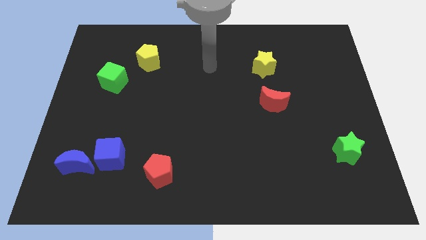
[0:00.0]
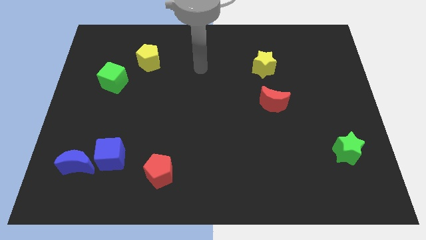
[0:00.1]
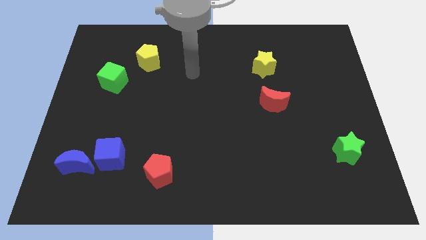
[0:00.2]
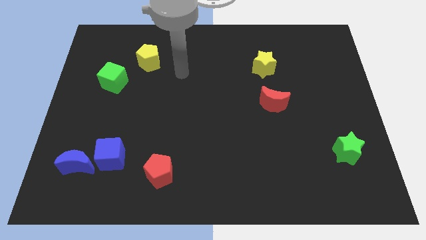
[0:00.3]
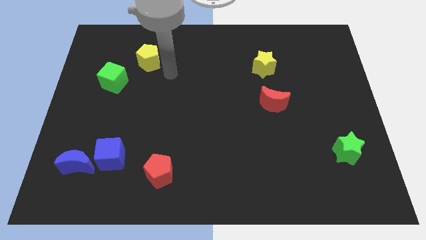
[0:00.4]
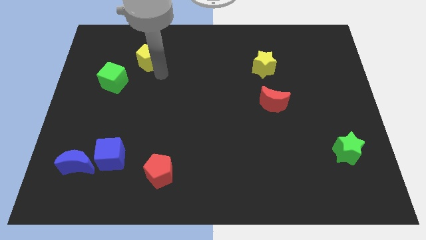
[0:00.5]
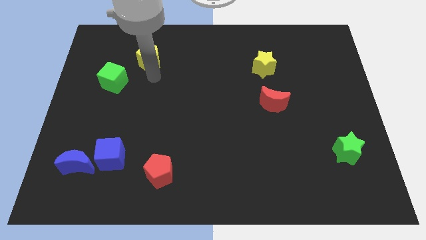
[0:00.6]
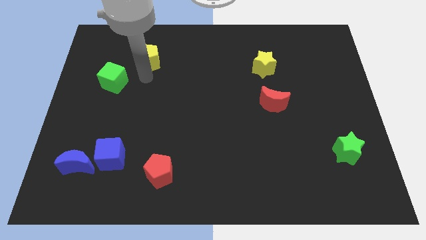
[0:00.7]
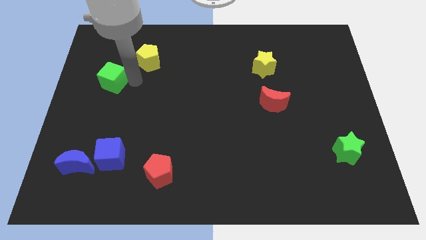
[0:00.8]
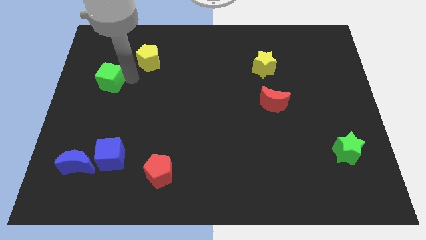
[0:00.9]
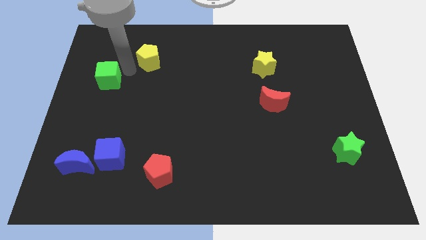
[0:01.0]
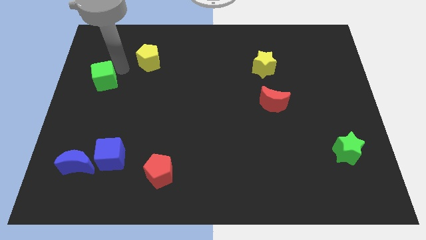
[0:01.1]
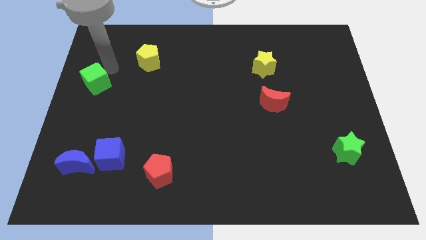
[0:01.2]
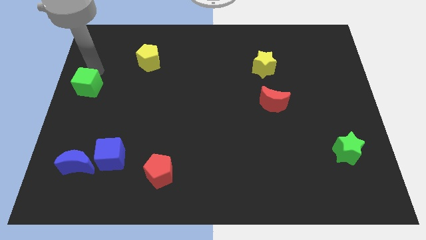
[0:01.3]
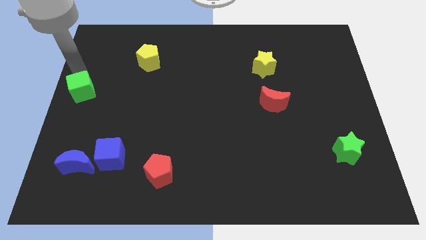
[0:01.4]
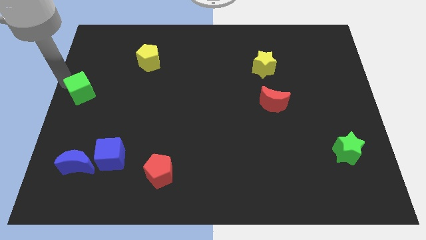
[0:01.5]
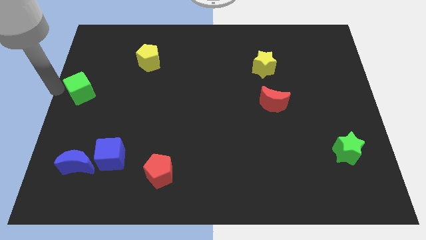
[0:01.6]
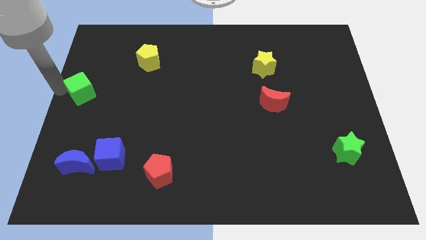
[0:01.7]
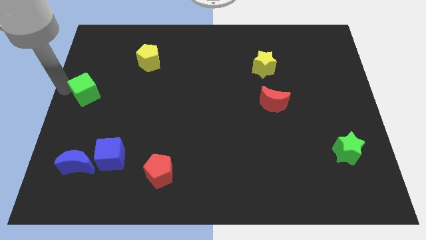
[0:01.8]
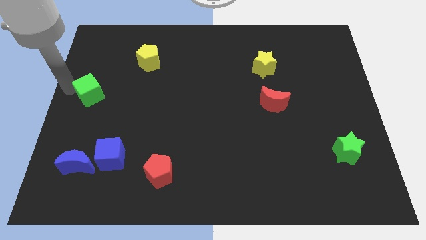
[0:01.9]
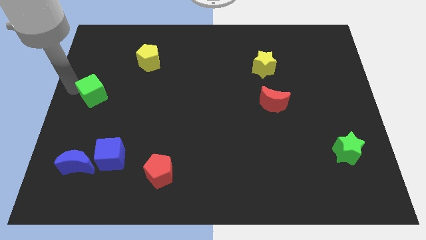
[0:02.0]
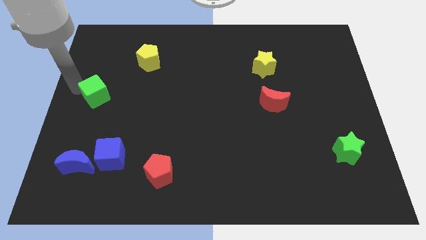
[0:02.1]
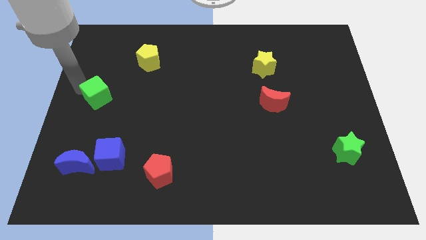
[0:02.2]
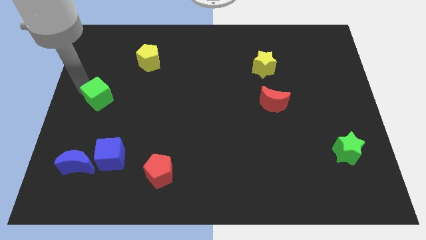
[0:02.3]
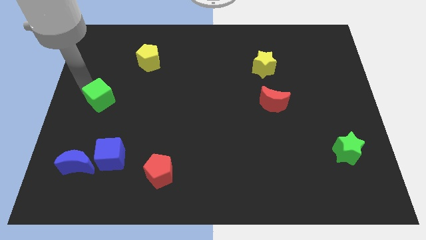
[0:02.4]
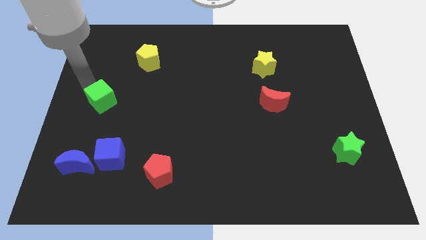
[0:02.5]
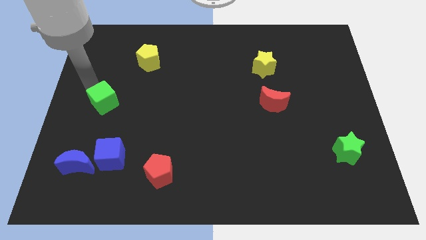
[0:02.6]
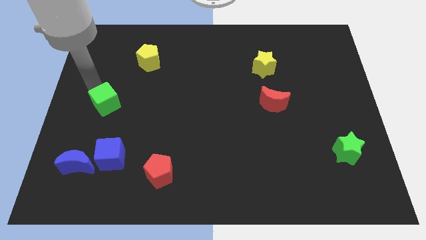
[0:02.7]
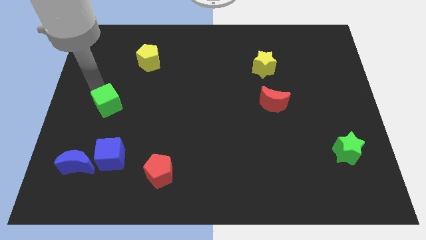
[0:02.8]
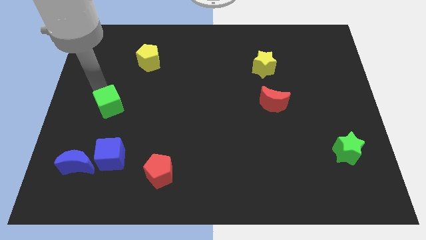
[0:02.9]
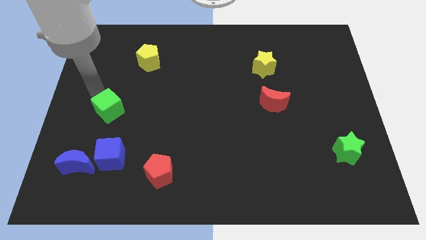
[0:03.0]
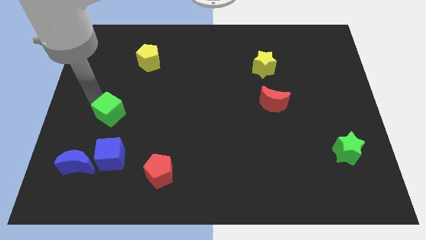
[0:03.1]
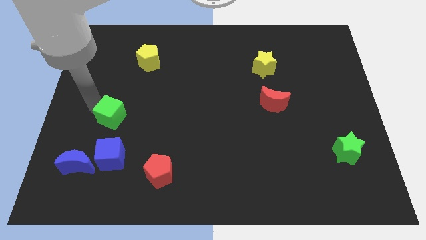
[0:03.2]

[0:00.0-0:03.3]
slightly move the green cube diagonally down and to the right

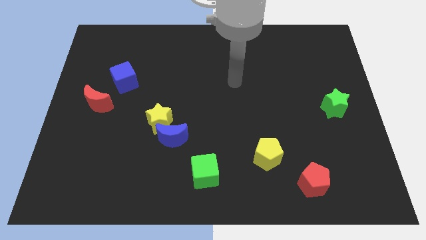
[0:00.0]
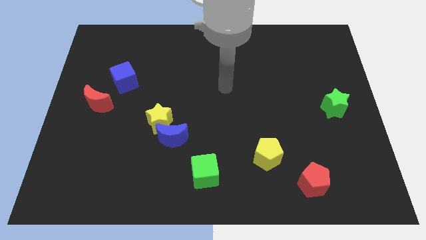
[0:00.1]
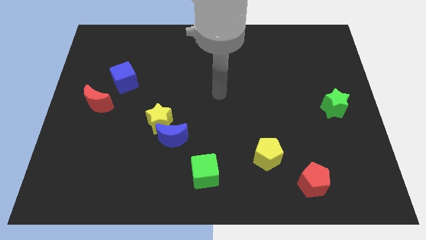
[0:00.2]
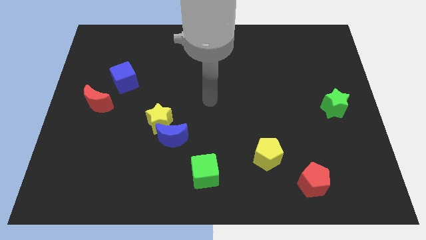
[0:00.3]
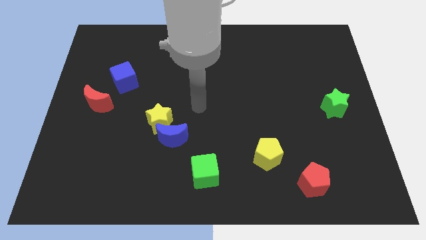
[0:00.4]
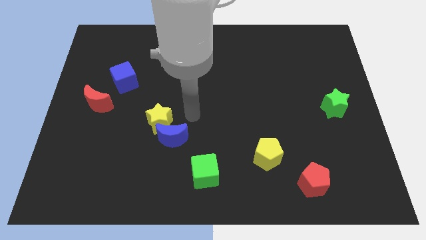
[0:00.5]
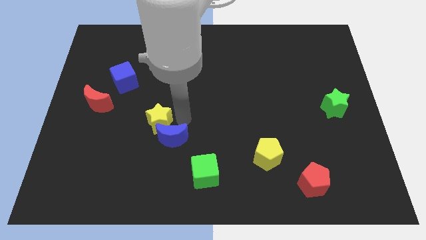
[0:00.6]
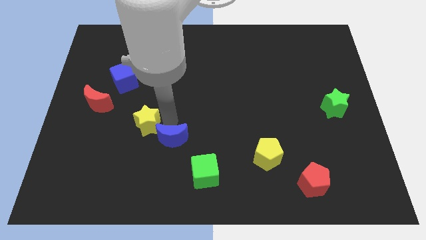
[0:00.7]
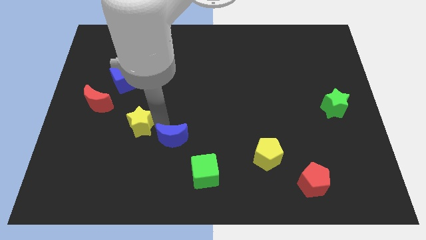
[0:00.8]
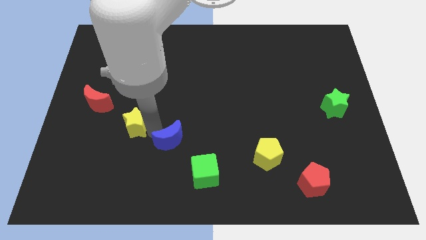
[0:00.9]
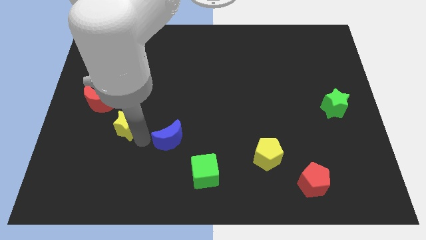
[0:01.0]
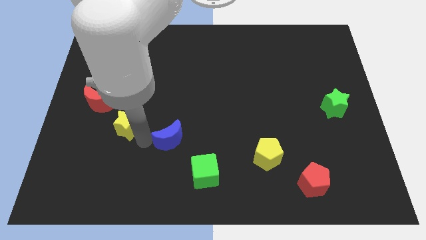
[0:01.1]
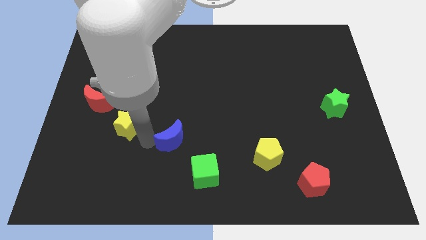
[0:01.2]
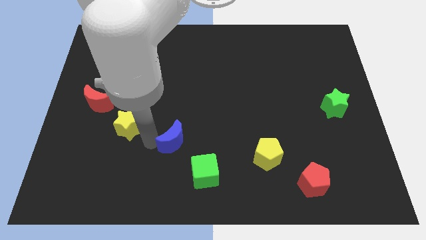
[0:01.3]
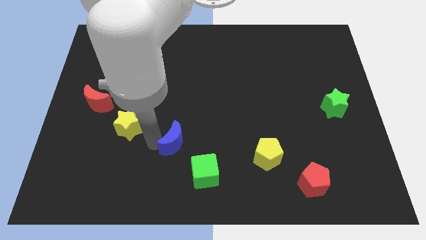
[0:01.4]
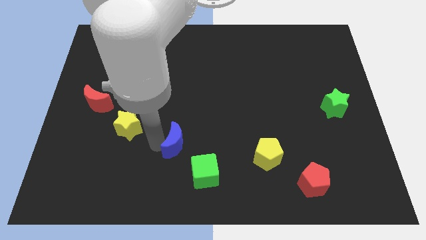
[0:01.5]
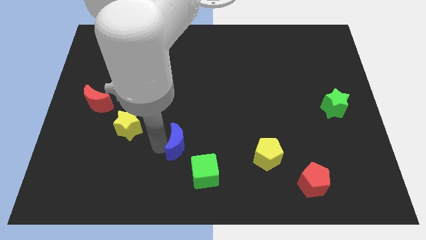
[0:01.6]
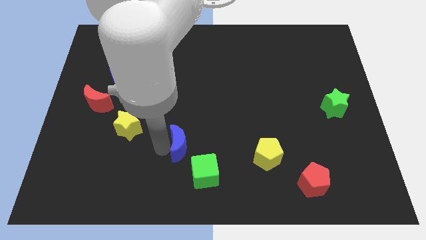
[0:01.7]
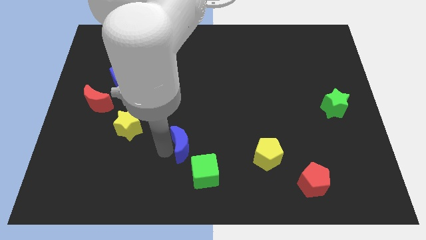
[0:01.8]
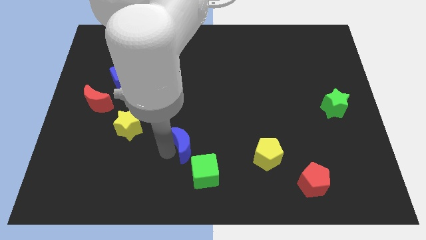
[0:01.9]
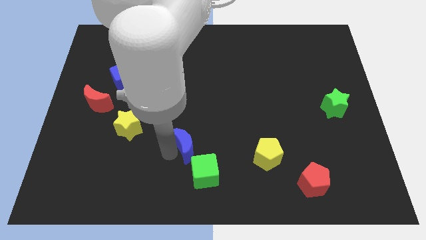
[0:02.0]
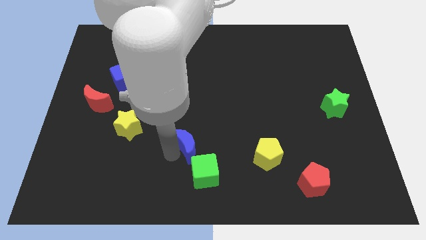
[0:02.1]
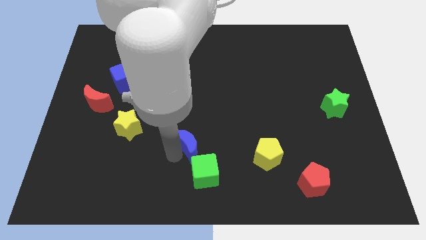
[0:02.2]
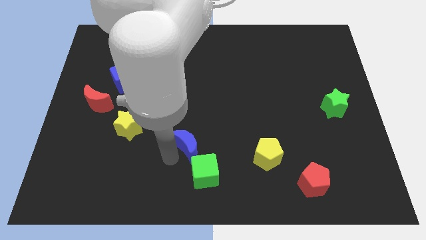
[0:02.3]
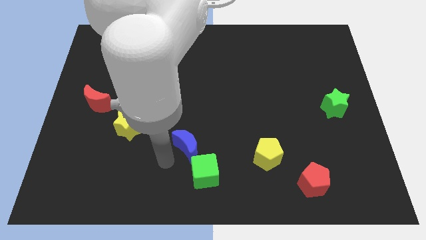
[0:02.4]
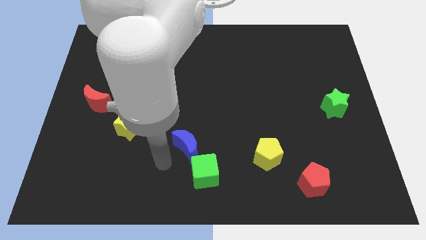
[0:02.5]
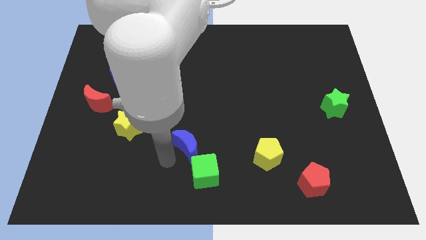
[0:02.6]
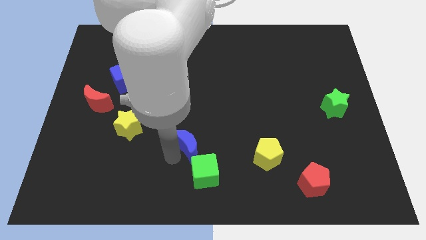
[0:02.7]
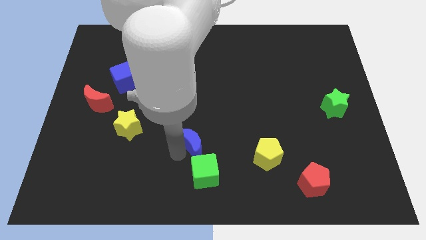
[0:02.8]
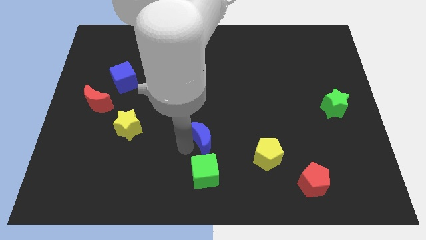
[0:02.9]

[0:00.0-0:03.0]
move the blue moon slightly right

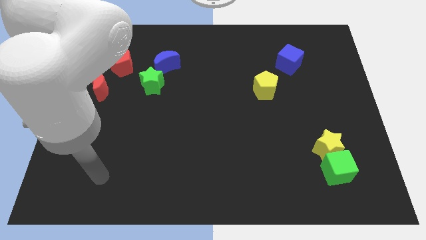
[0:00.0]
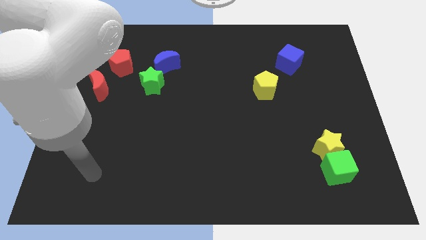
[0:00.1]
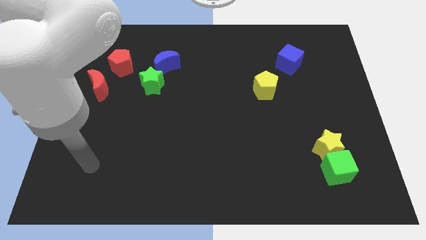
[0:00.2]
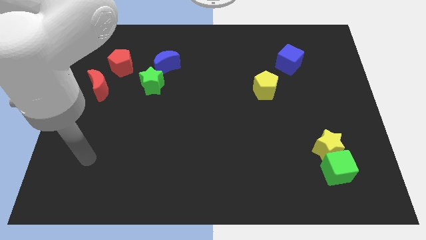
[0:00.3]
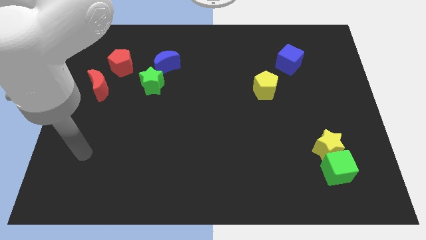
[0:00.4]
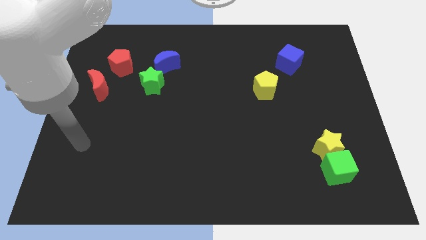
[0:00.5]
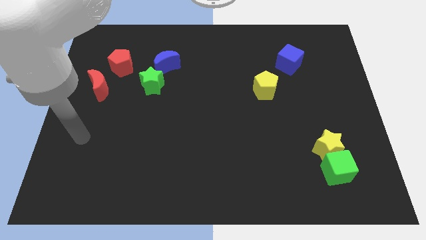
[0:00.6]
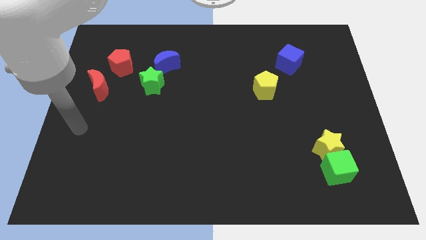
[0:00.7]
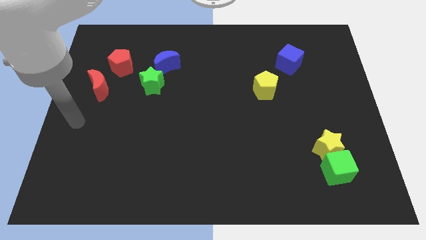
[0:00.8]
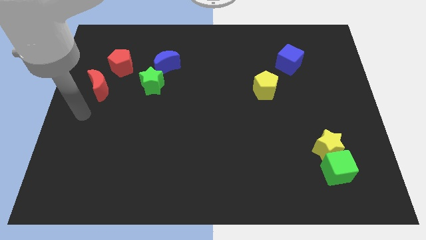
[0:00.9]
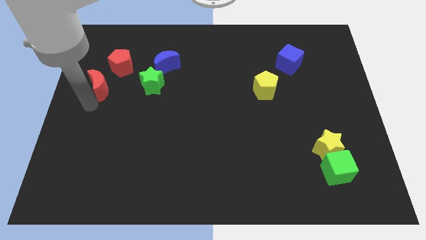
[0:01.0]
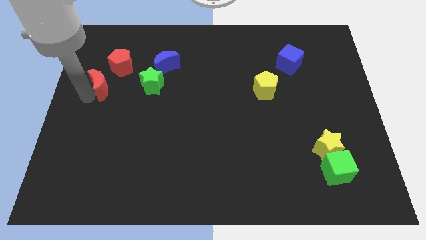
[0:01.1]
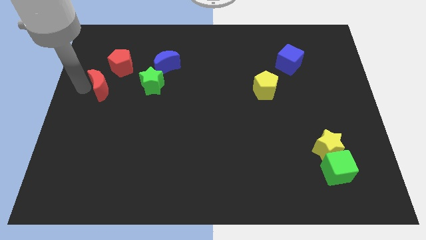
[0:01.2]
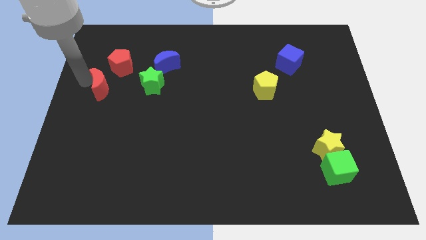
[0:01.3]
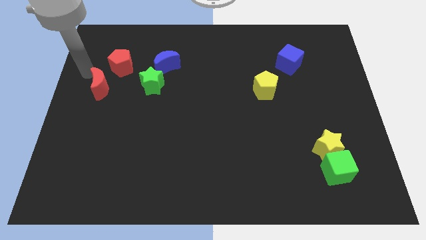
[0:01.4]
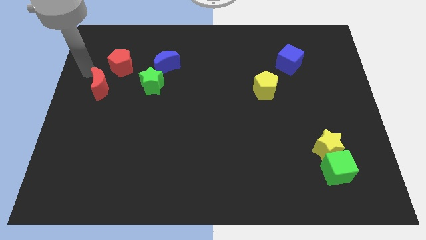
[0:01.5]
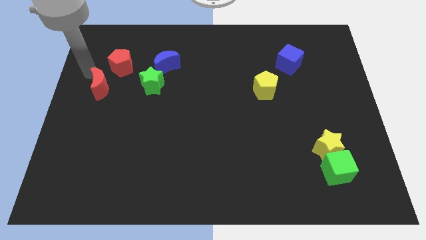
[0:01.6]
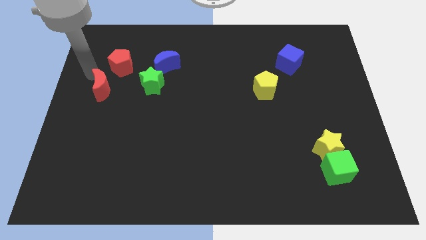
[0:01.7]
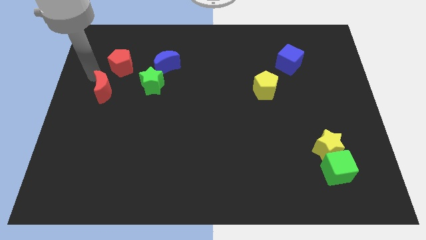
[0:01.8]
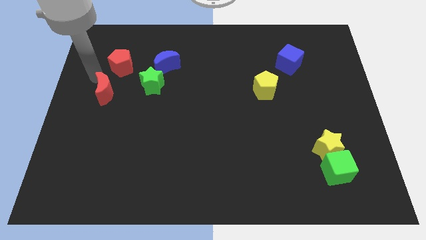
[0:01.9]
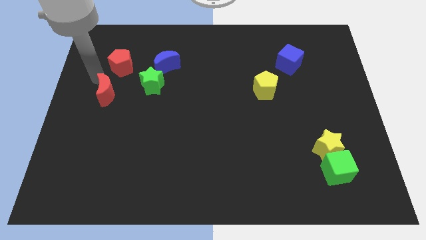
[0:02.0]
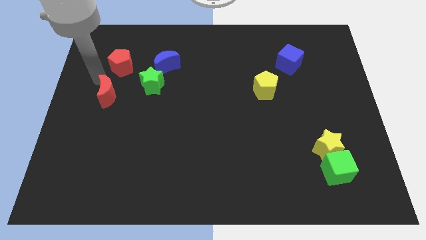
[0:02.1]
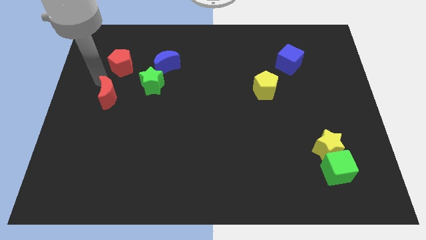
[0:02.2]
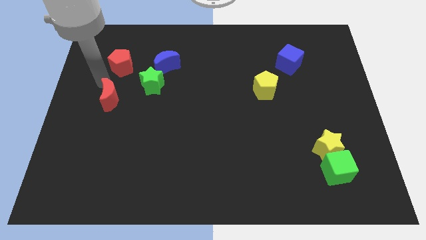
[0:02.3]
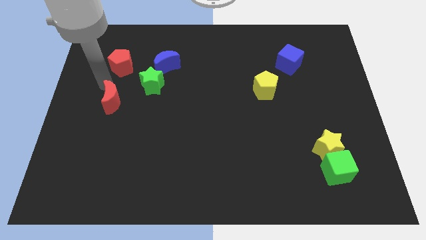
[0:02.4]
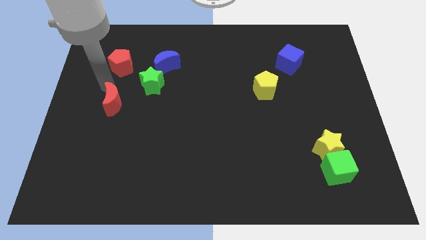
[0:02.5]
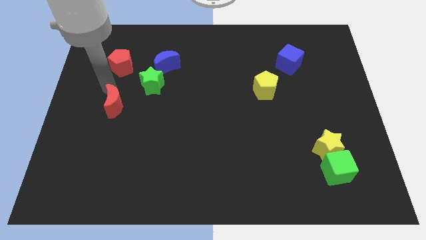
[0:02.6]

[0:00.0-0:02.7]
slightly push the red moon down and to the right
